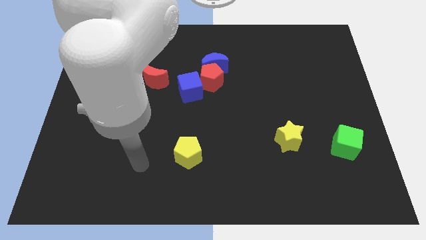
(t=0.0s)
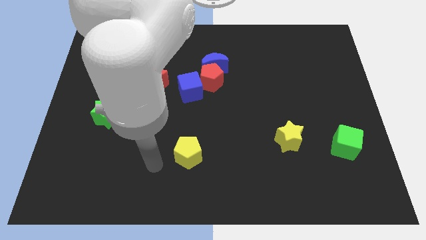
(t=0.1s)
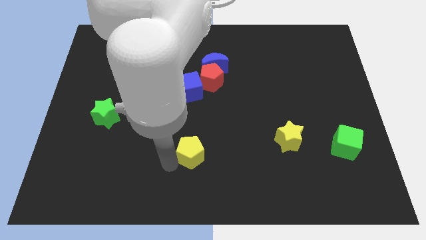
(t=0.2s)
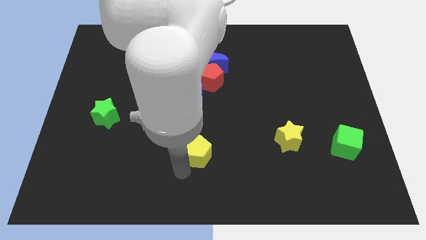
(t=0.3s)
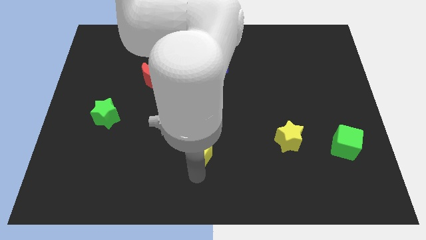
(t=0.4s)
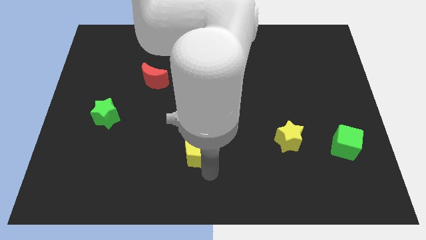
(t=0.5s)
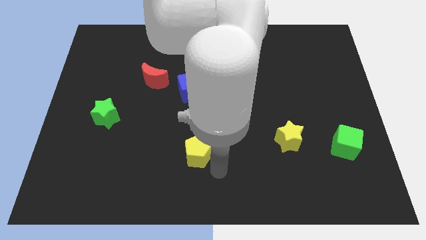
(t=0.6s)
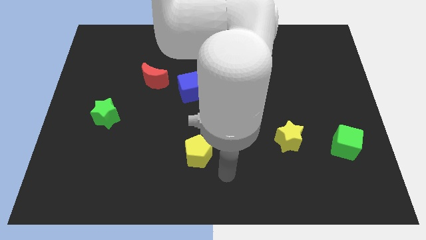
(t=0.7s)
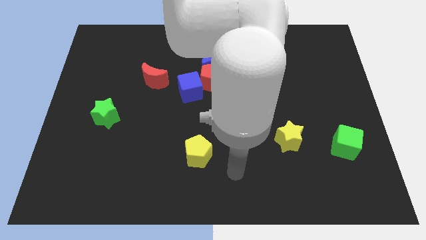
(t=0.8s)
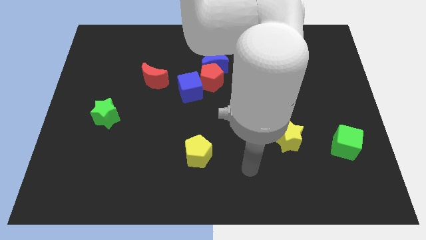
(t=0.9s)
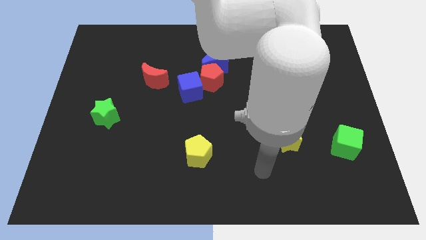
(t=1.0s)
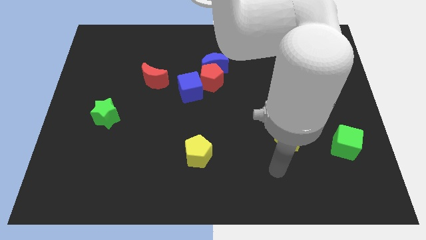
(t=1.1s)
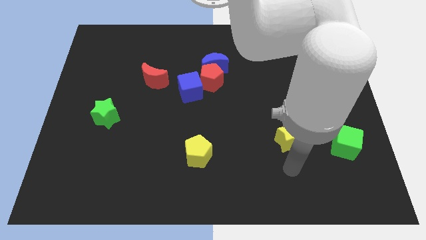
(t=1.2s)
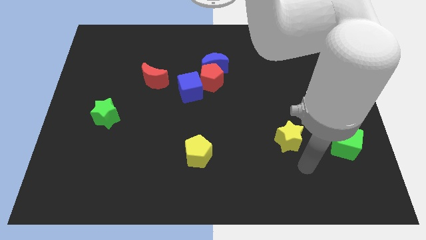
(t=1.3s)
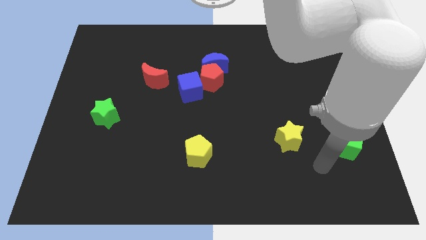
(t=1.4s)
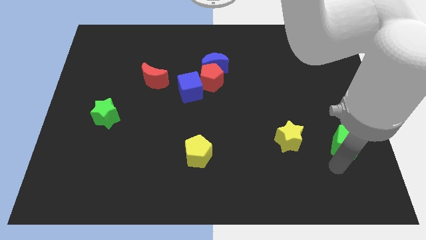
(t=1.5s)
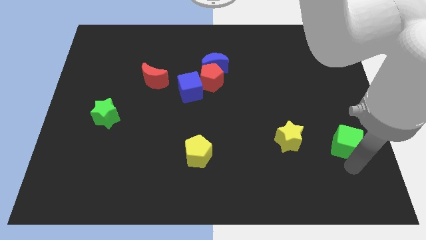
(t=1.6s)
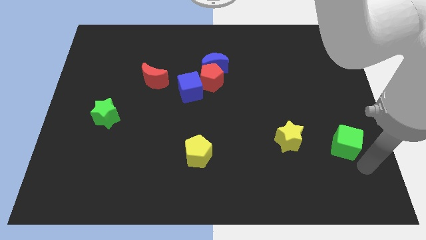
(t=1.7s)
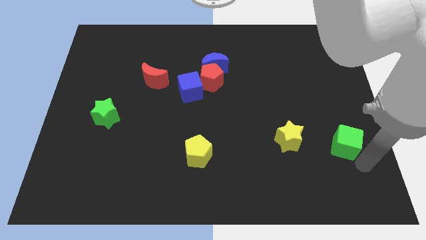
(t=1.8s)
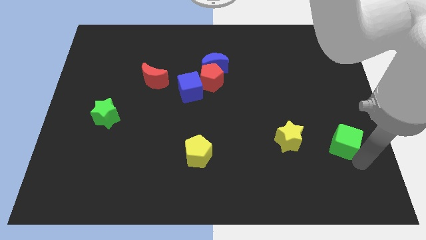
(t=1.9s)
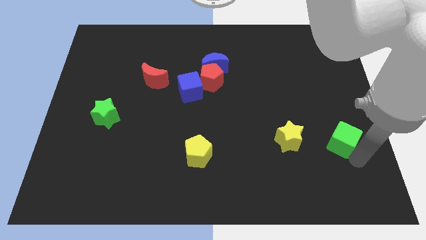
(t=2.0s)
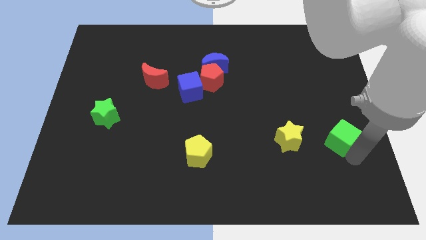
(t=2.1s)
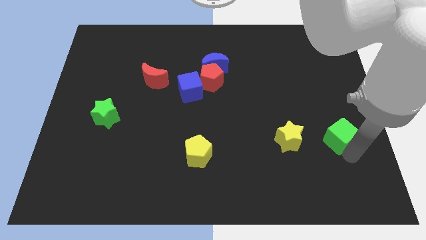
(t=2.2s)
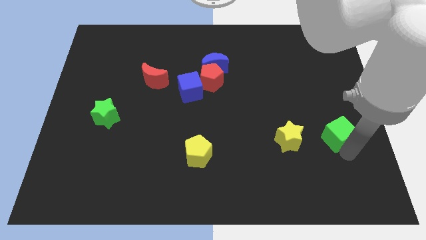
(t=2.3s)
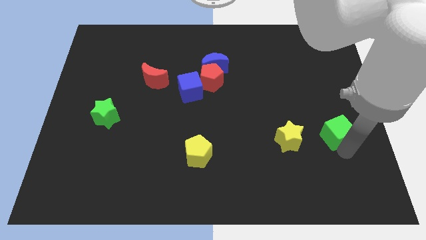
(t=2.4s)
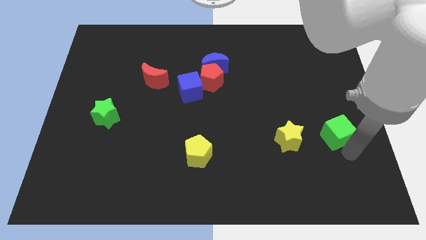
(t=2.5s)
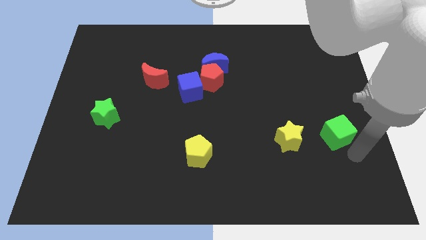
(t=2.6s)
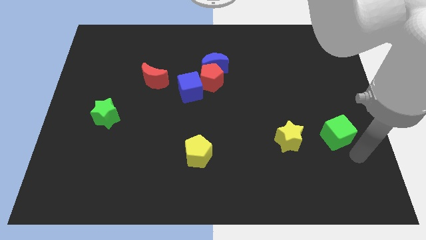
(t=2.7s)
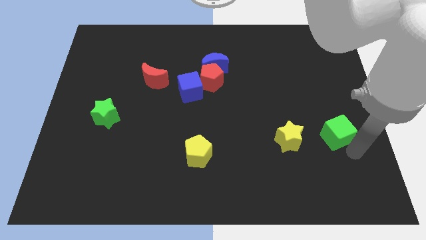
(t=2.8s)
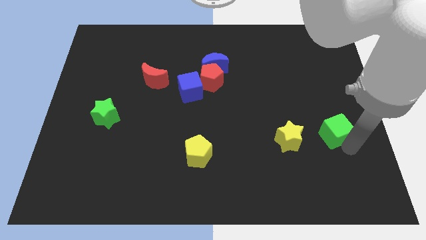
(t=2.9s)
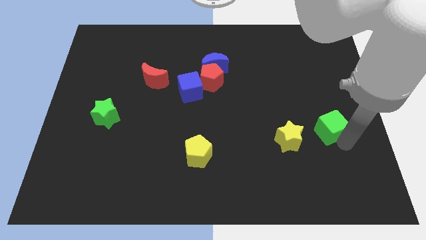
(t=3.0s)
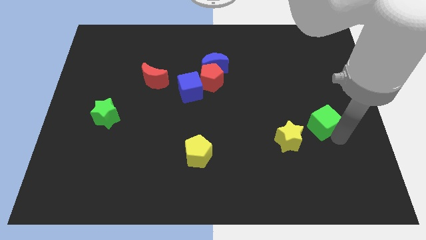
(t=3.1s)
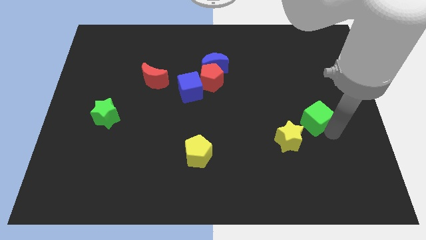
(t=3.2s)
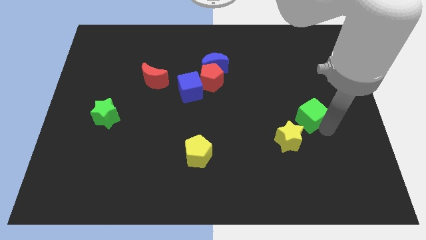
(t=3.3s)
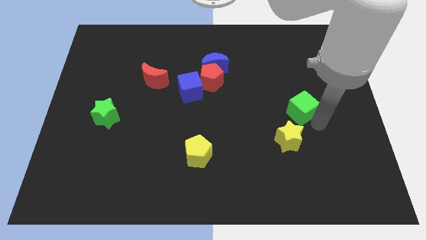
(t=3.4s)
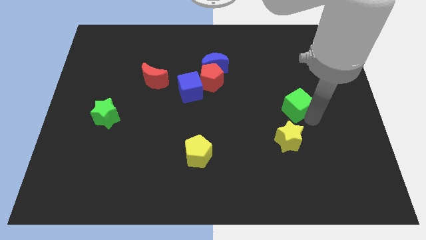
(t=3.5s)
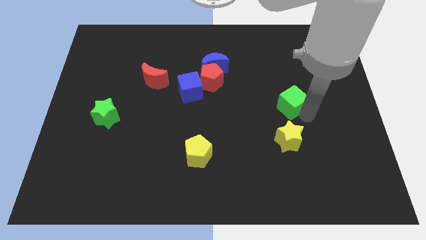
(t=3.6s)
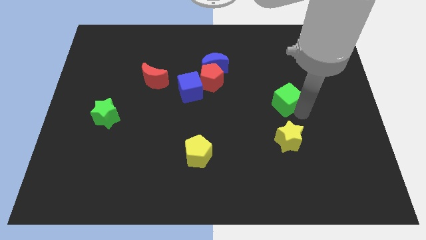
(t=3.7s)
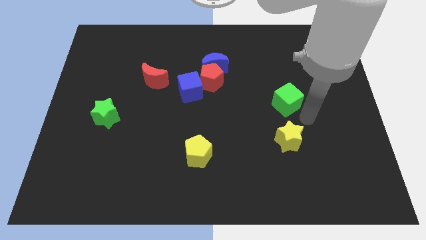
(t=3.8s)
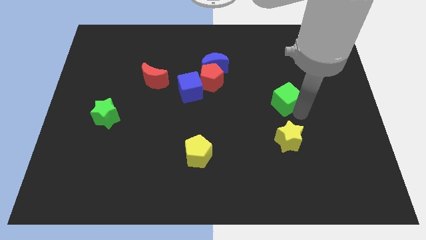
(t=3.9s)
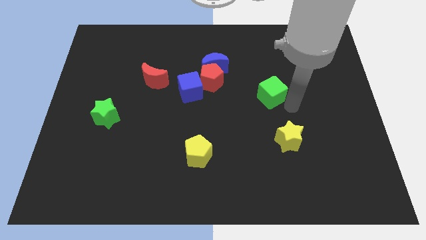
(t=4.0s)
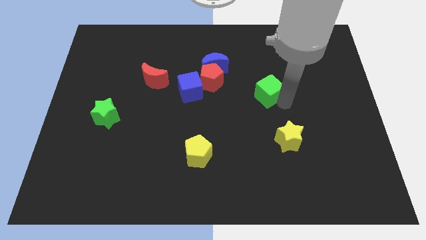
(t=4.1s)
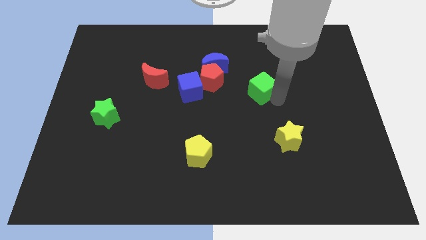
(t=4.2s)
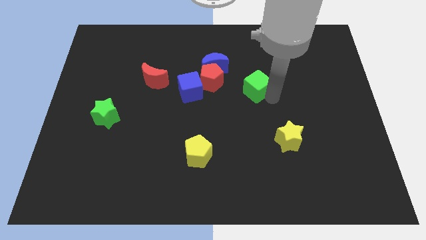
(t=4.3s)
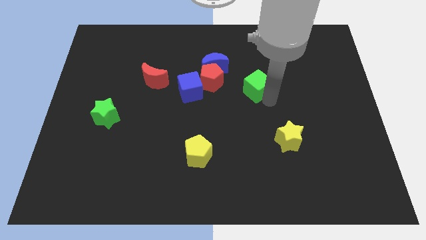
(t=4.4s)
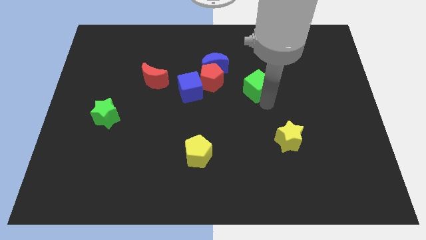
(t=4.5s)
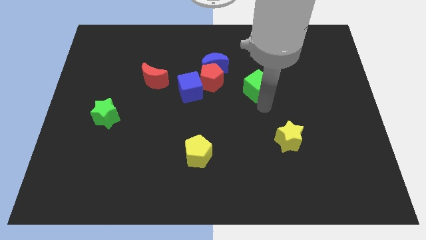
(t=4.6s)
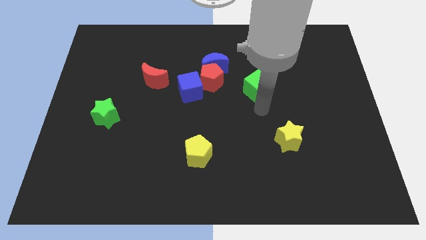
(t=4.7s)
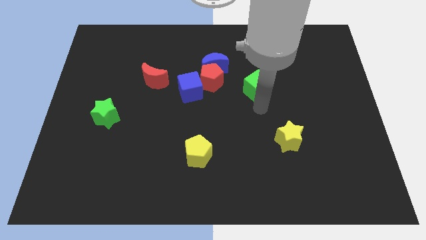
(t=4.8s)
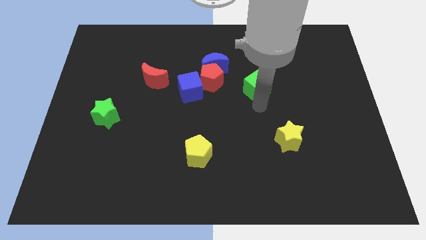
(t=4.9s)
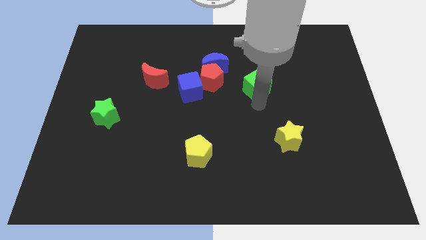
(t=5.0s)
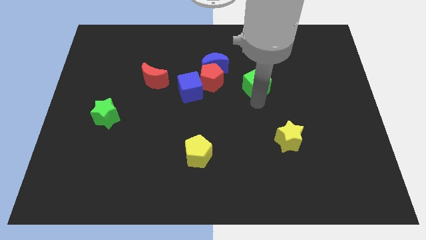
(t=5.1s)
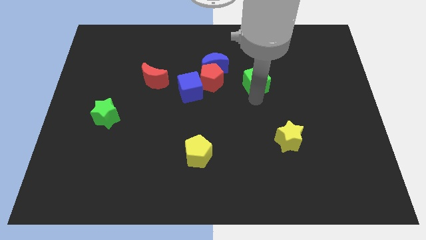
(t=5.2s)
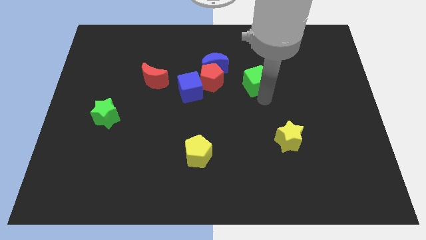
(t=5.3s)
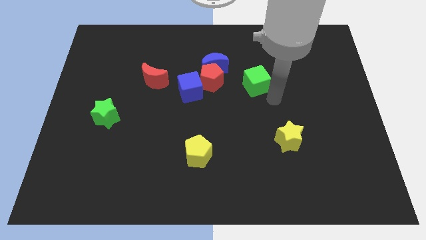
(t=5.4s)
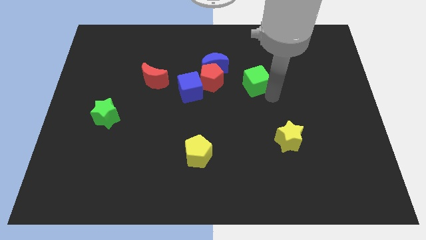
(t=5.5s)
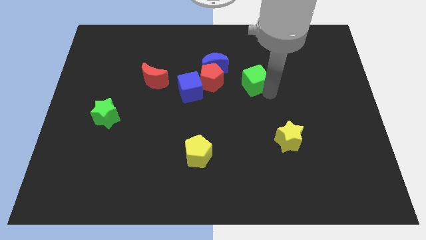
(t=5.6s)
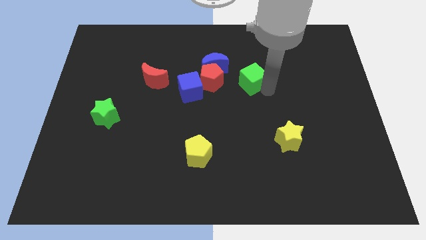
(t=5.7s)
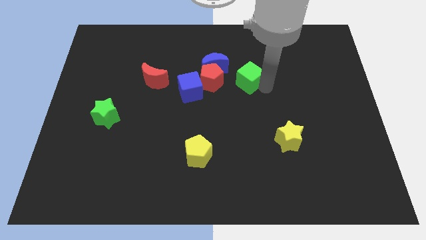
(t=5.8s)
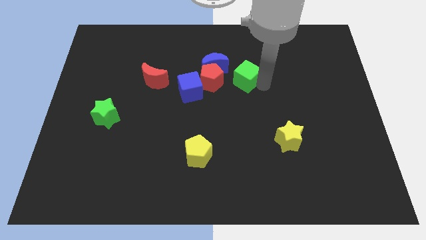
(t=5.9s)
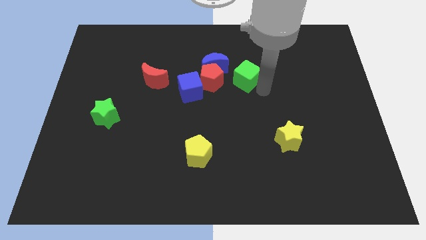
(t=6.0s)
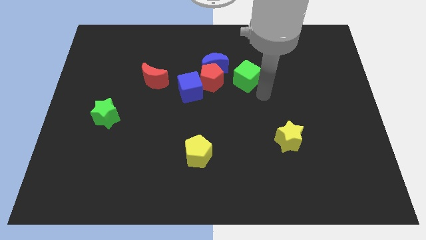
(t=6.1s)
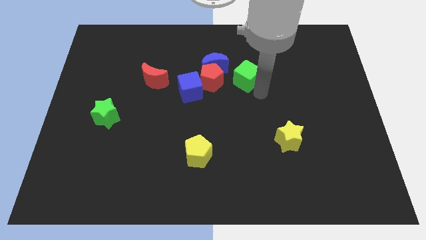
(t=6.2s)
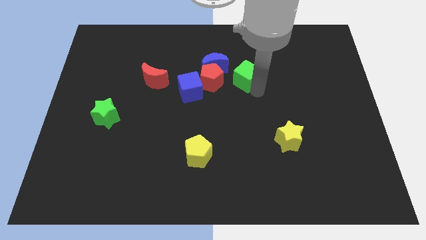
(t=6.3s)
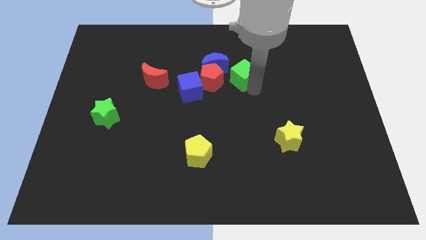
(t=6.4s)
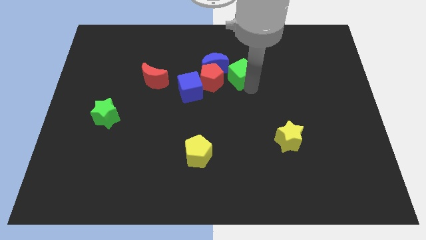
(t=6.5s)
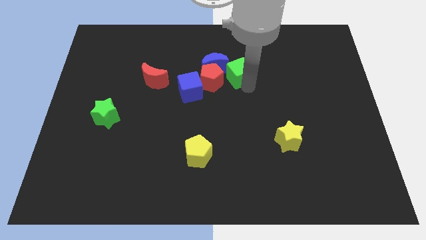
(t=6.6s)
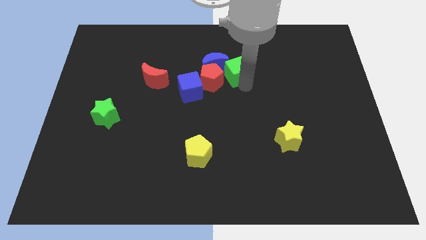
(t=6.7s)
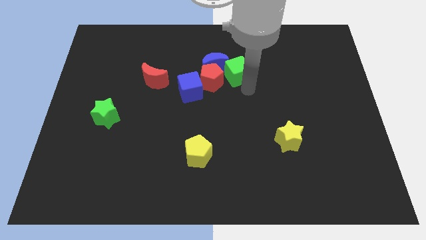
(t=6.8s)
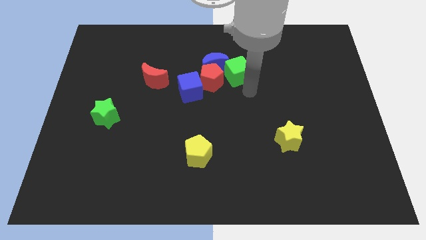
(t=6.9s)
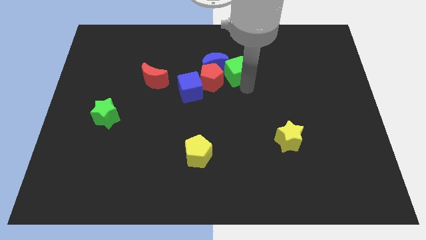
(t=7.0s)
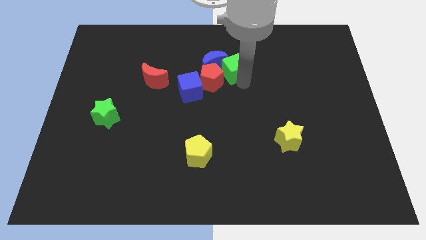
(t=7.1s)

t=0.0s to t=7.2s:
slide the green cube to the blue moon

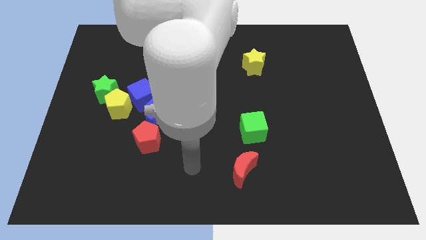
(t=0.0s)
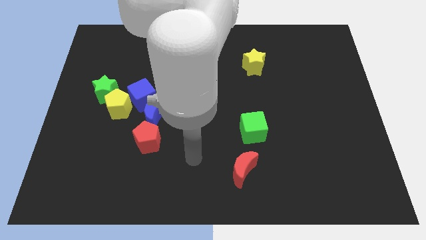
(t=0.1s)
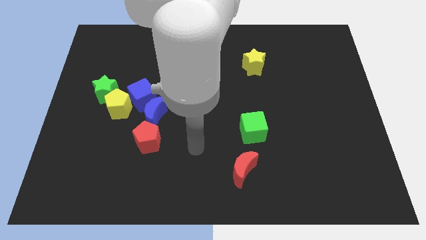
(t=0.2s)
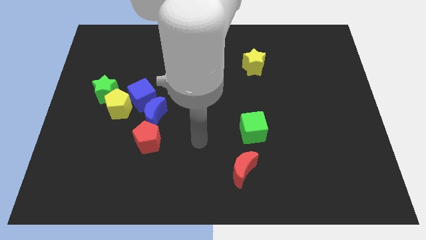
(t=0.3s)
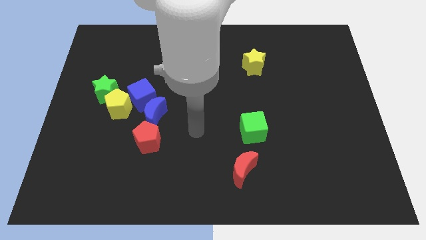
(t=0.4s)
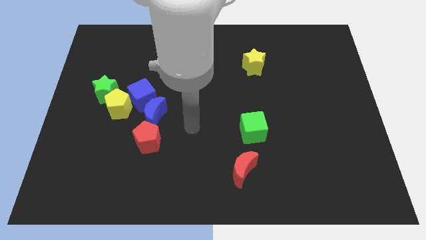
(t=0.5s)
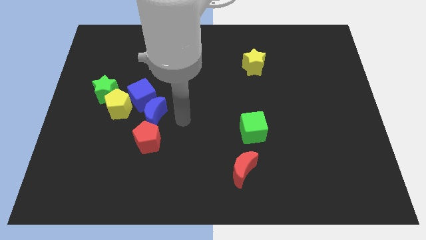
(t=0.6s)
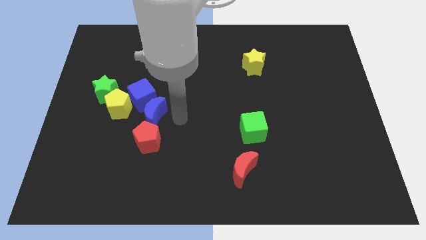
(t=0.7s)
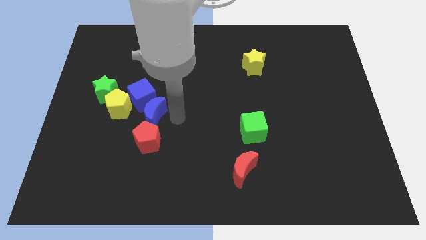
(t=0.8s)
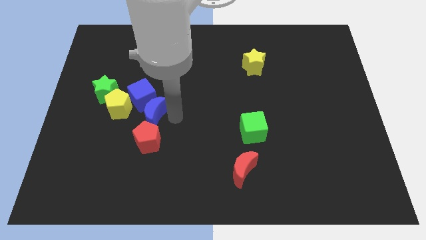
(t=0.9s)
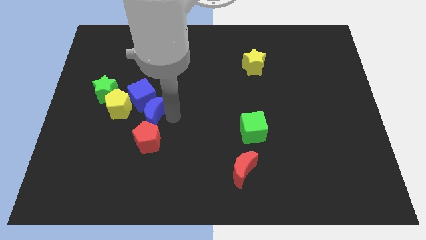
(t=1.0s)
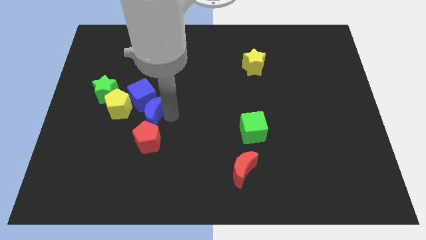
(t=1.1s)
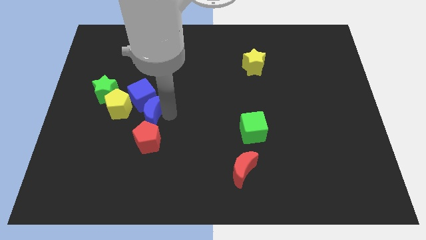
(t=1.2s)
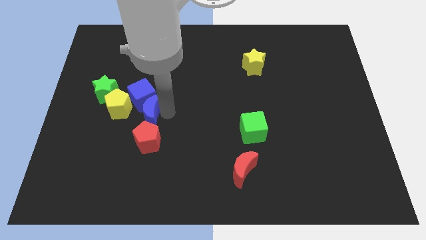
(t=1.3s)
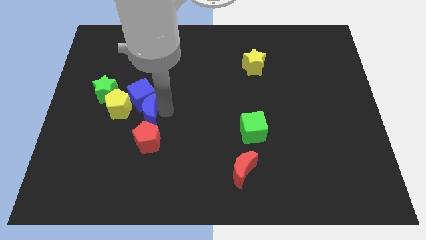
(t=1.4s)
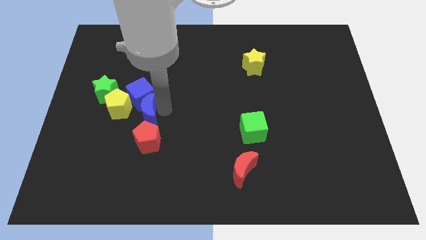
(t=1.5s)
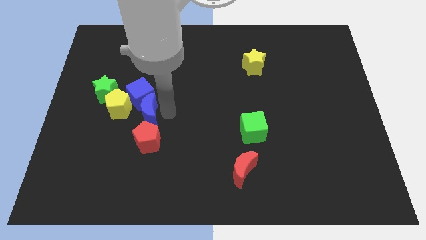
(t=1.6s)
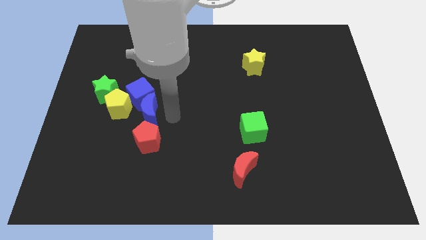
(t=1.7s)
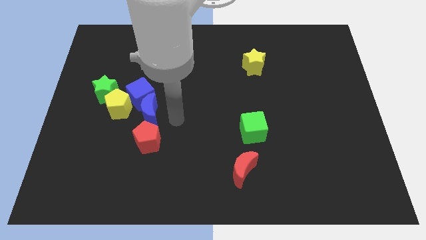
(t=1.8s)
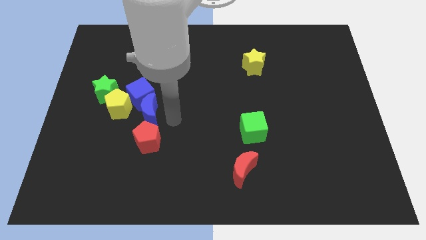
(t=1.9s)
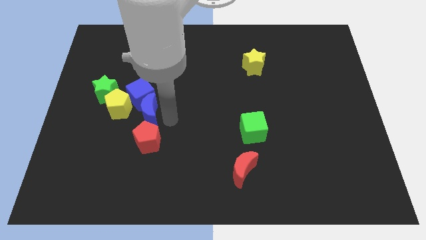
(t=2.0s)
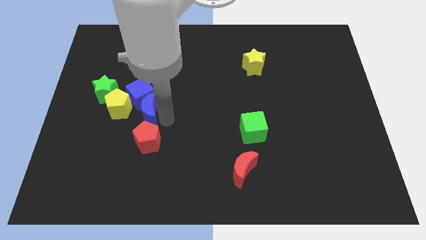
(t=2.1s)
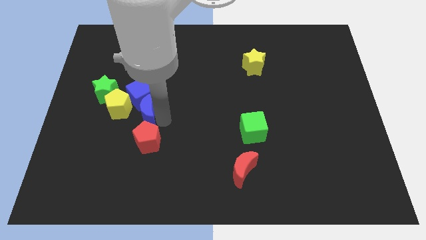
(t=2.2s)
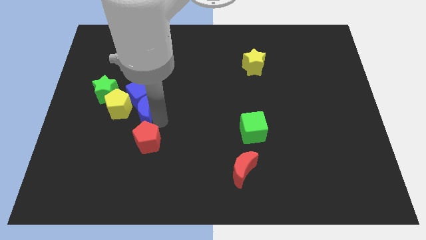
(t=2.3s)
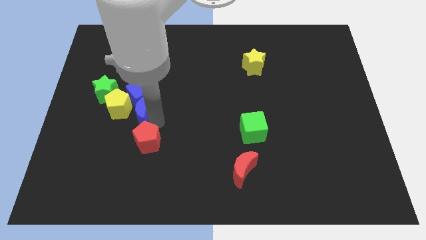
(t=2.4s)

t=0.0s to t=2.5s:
slide the blue moon towards the yellow pentagon
